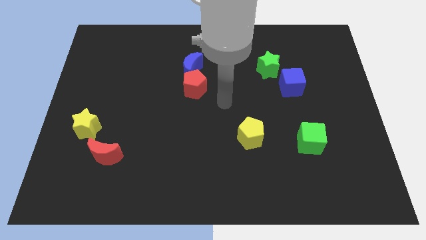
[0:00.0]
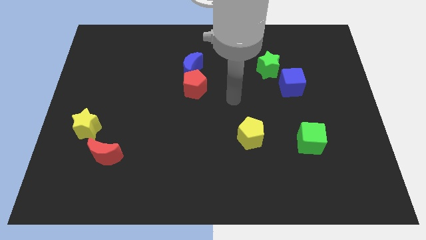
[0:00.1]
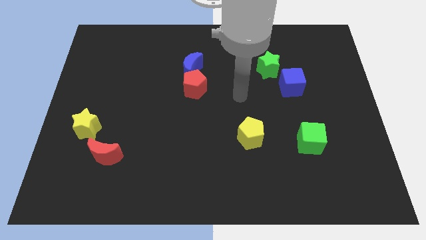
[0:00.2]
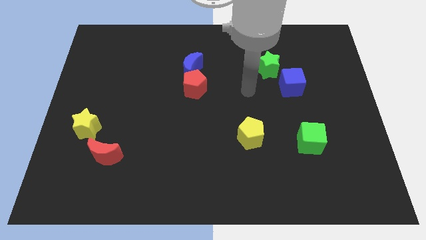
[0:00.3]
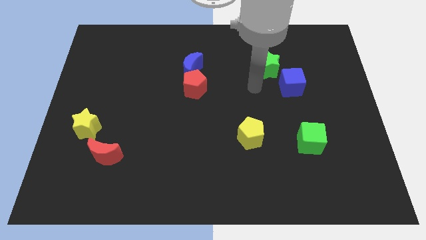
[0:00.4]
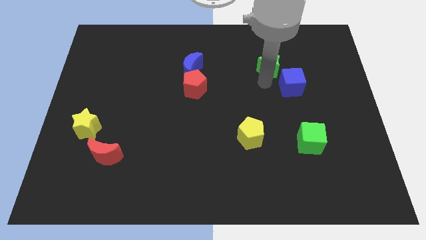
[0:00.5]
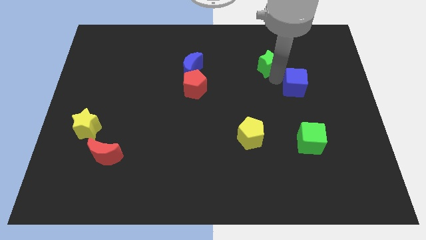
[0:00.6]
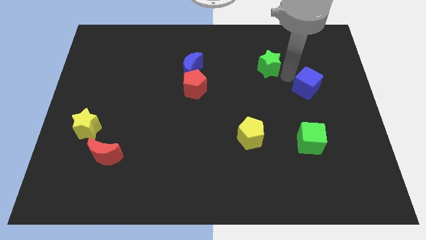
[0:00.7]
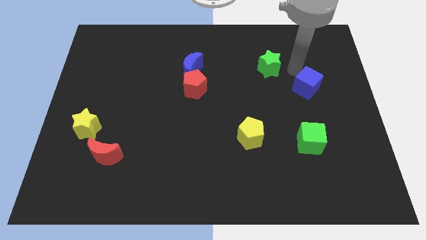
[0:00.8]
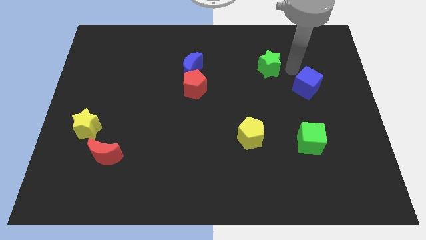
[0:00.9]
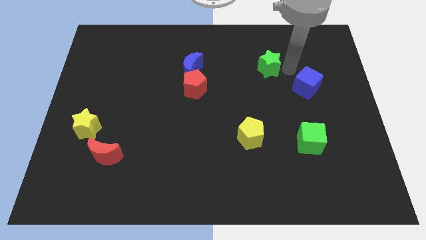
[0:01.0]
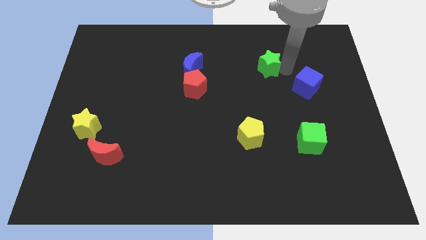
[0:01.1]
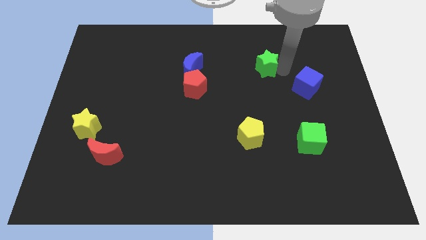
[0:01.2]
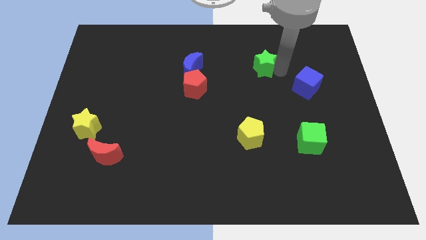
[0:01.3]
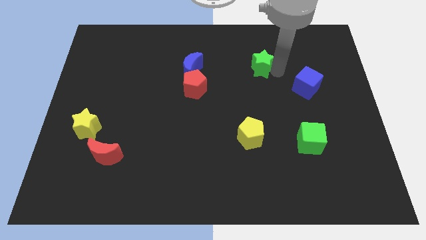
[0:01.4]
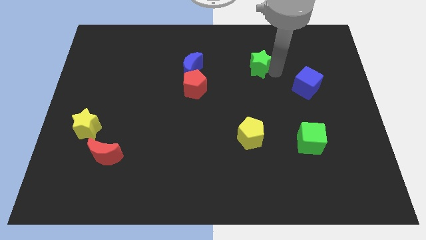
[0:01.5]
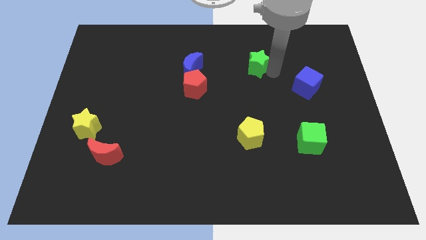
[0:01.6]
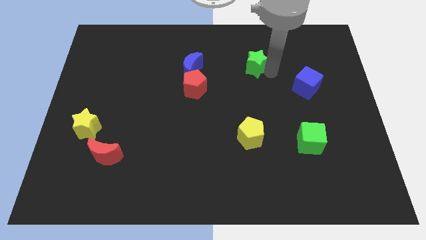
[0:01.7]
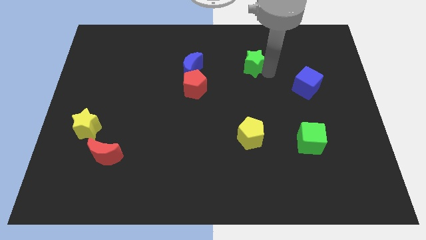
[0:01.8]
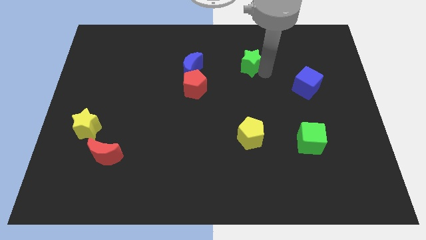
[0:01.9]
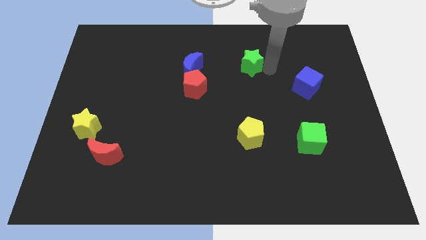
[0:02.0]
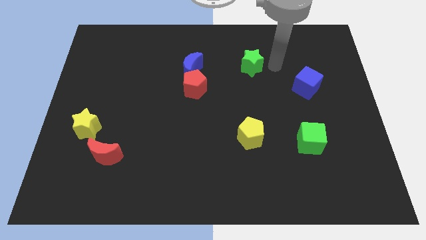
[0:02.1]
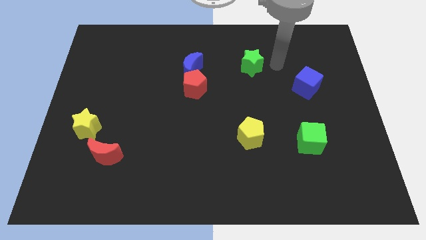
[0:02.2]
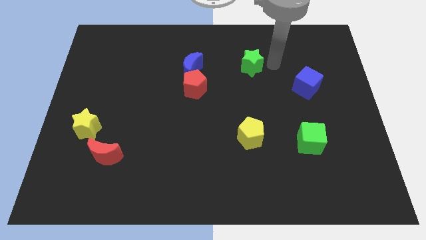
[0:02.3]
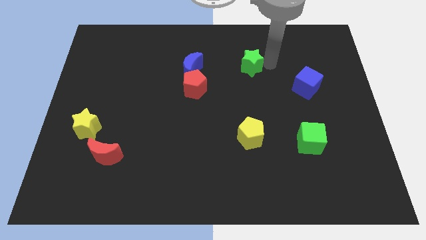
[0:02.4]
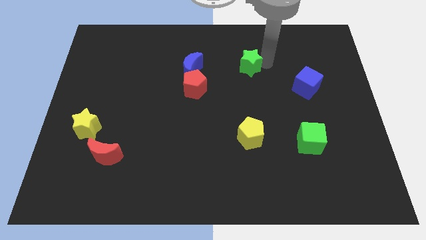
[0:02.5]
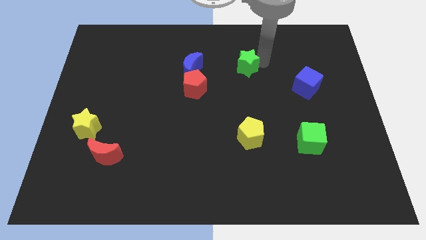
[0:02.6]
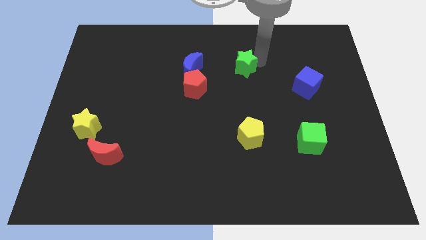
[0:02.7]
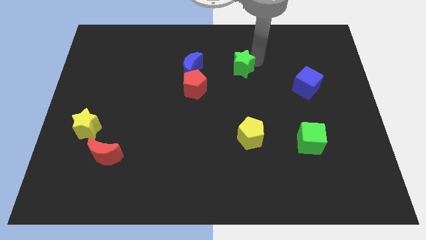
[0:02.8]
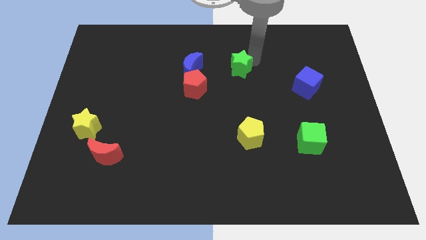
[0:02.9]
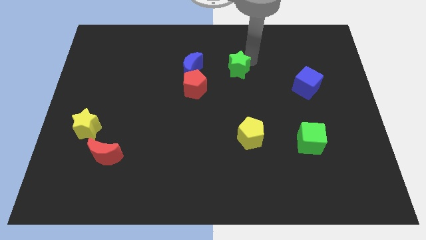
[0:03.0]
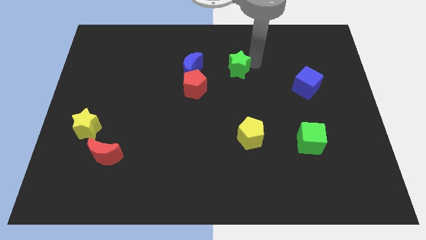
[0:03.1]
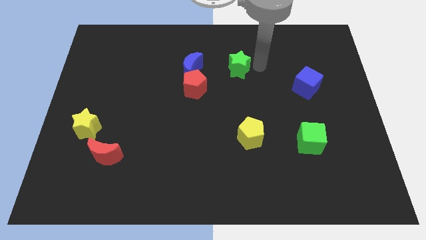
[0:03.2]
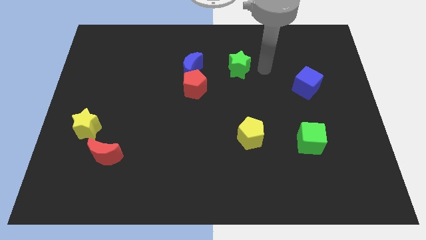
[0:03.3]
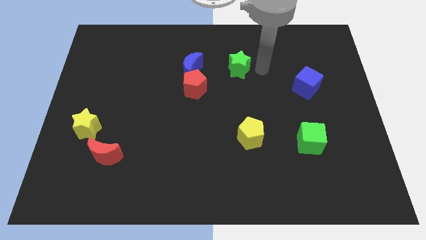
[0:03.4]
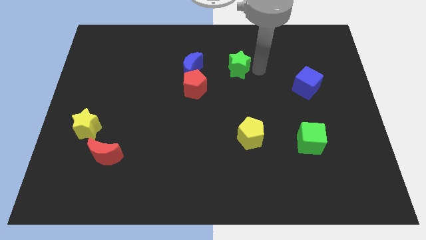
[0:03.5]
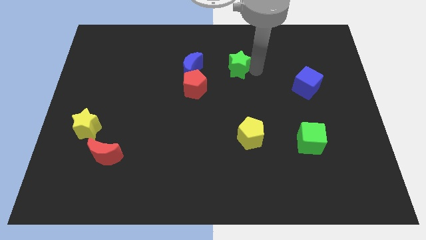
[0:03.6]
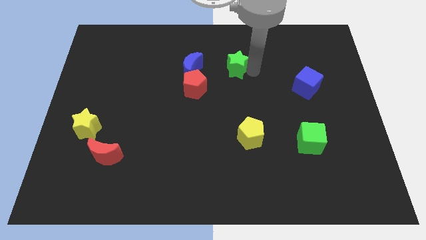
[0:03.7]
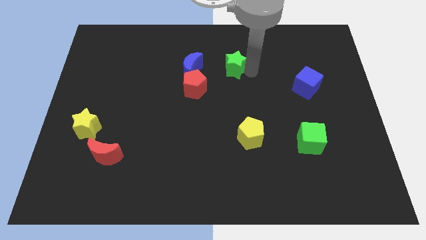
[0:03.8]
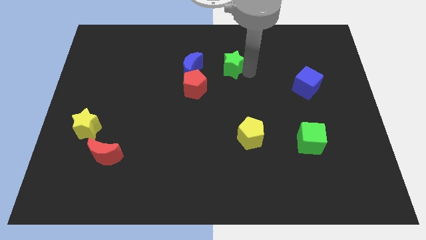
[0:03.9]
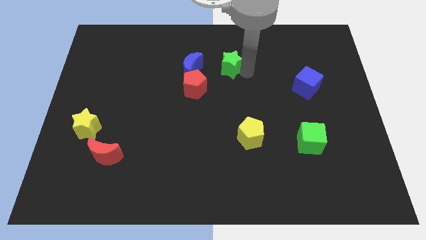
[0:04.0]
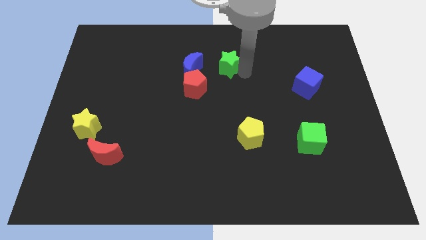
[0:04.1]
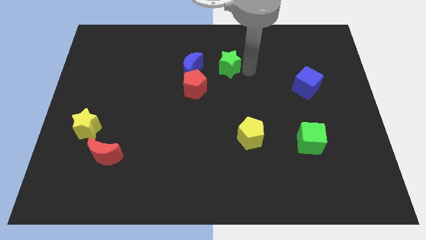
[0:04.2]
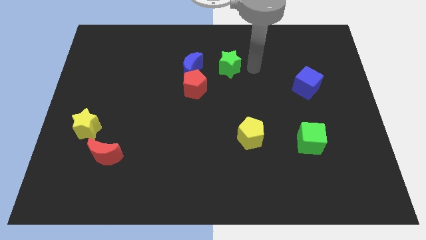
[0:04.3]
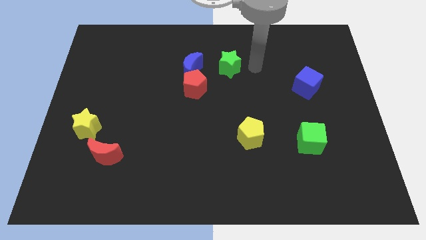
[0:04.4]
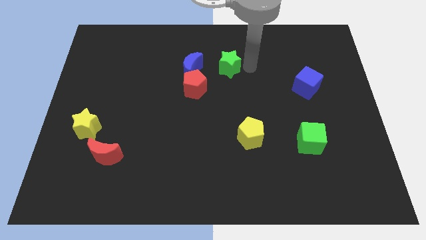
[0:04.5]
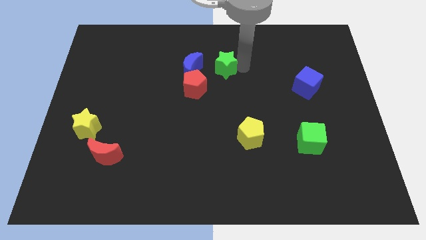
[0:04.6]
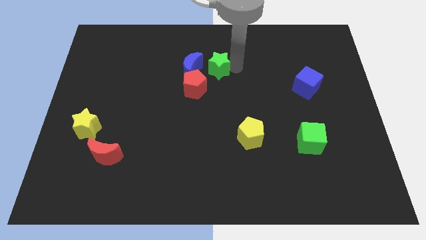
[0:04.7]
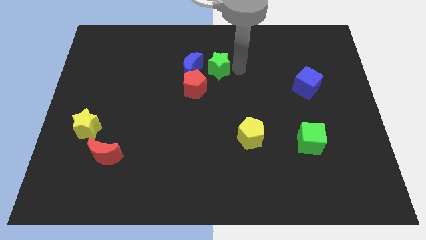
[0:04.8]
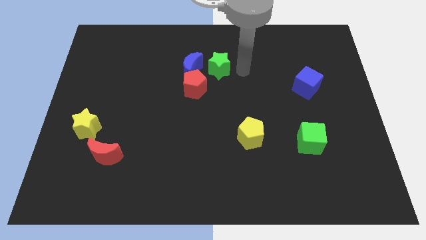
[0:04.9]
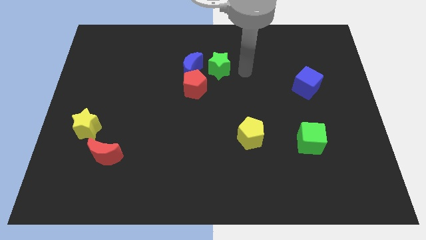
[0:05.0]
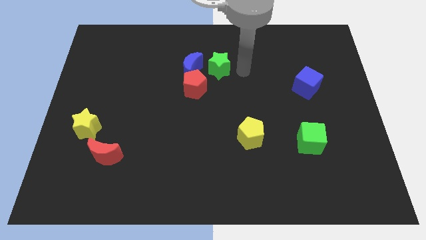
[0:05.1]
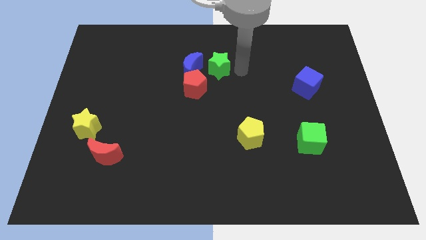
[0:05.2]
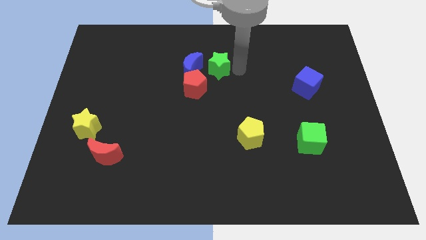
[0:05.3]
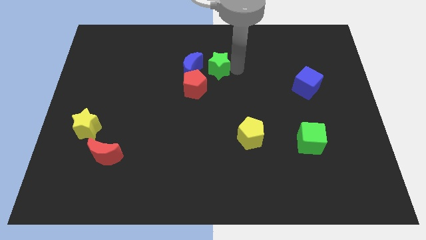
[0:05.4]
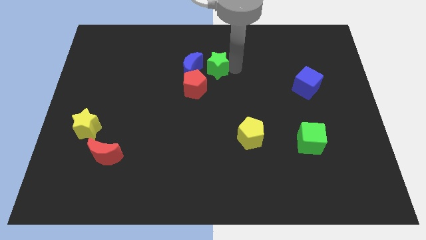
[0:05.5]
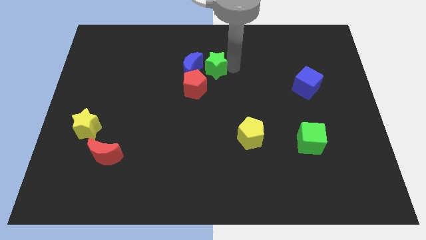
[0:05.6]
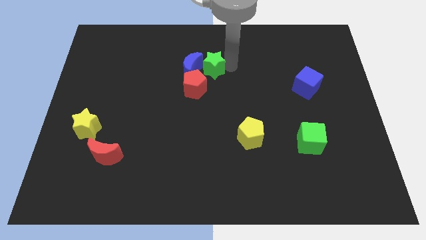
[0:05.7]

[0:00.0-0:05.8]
move the green star to the blue moon

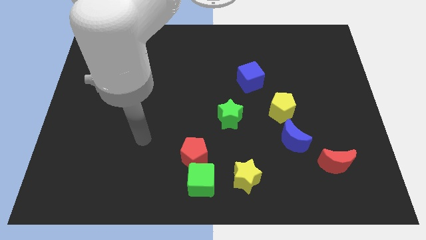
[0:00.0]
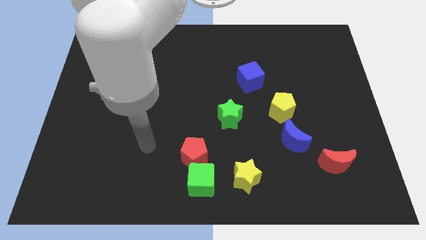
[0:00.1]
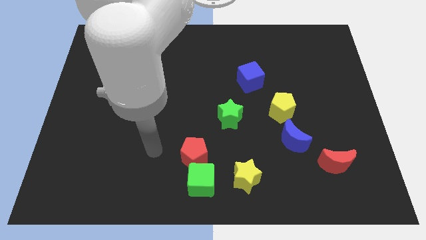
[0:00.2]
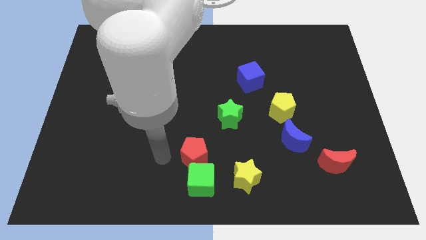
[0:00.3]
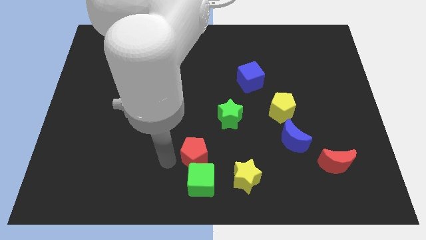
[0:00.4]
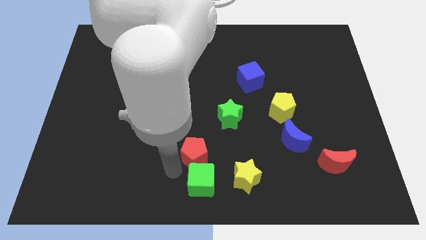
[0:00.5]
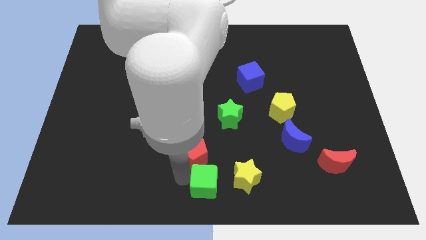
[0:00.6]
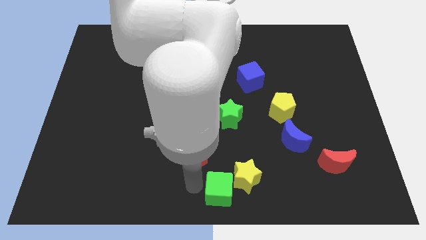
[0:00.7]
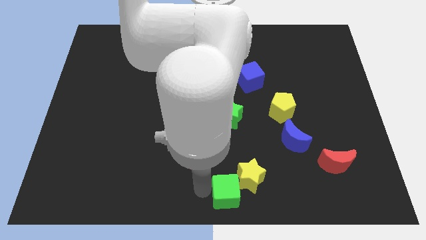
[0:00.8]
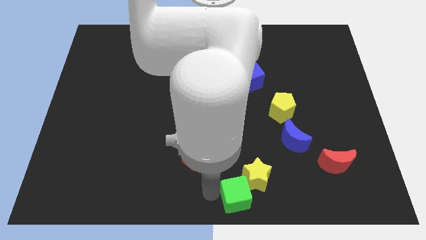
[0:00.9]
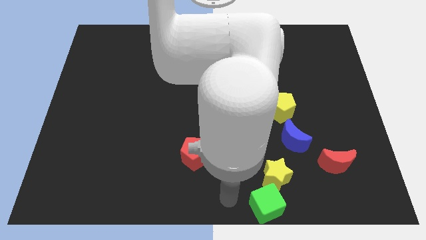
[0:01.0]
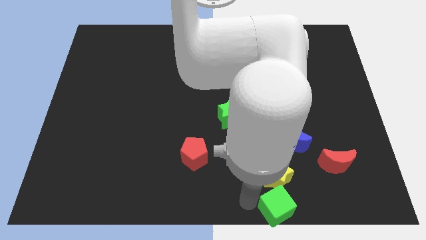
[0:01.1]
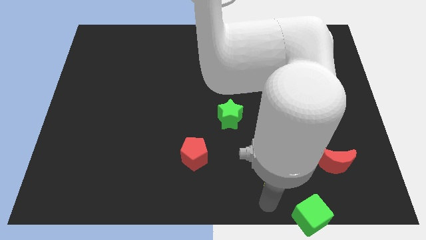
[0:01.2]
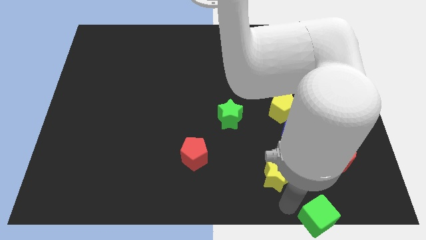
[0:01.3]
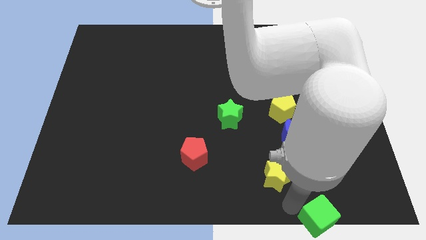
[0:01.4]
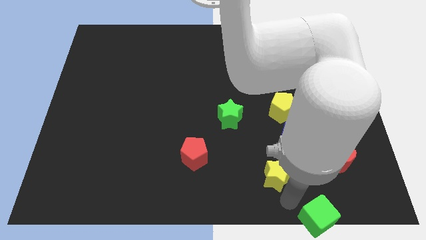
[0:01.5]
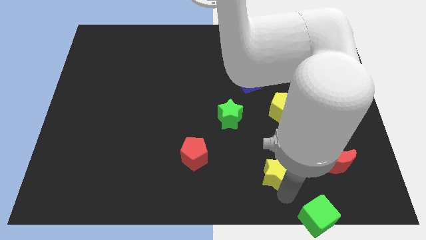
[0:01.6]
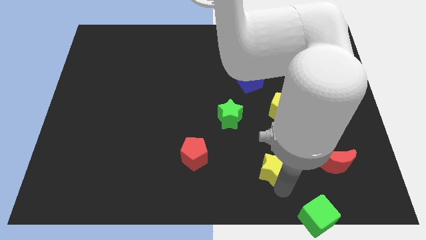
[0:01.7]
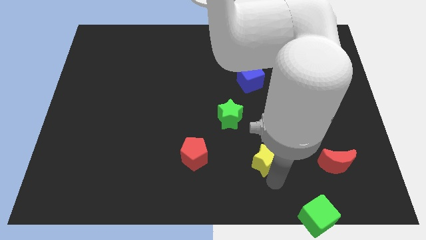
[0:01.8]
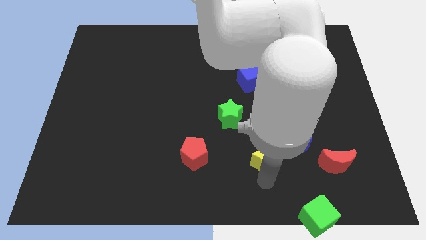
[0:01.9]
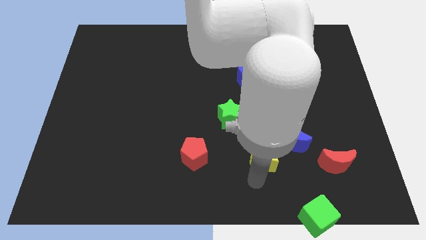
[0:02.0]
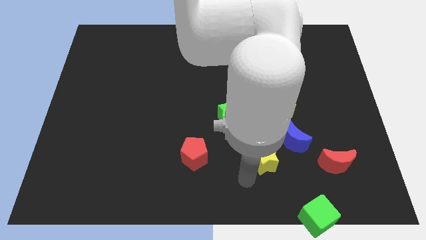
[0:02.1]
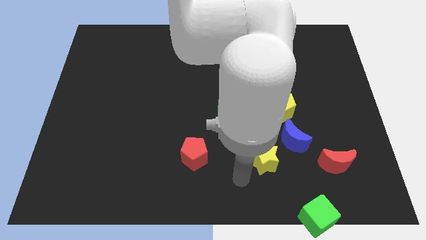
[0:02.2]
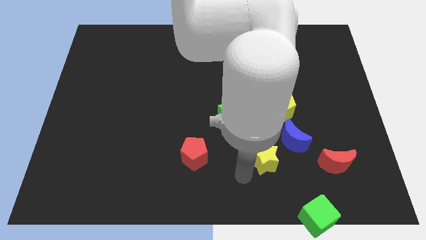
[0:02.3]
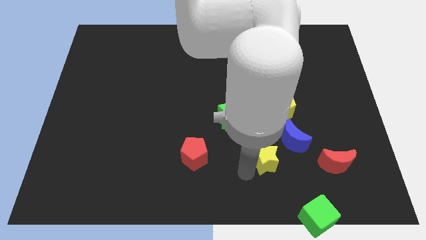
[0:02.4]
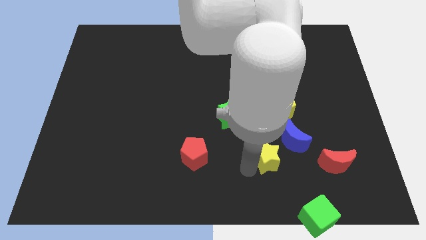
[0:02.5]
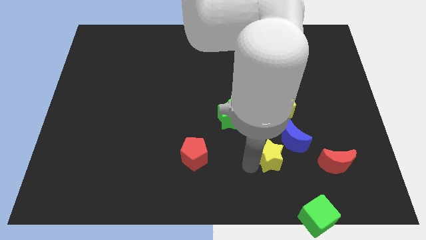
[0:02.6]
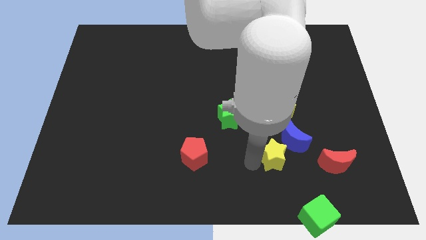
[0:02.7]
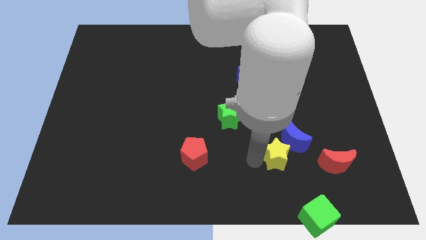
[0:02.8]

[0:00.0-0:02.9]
slide the yellow star towards the blue moon
